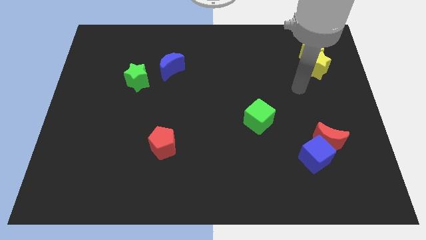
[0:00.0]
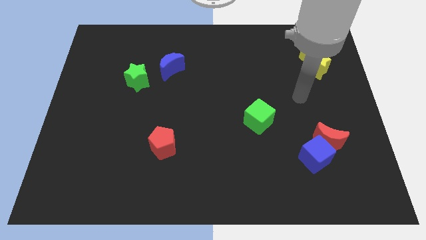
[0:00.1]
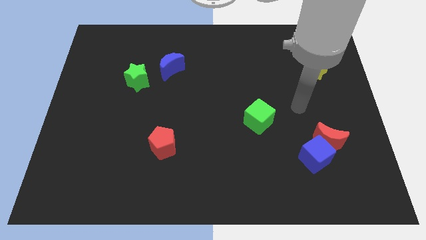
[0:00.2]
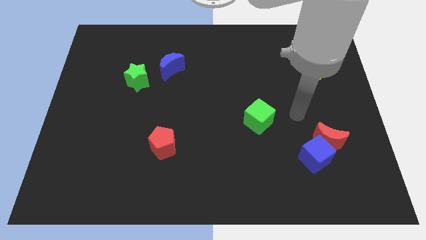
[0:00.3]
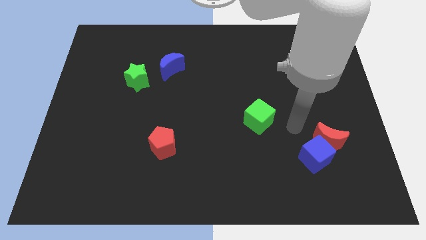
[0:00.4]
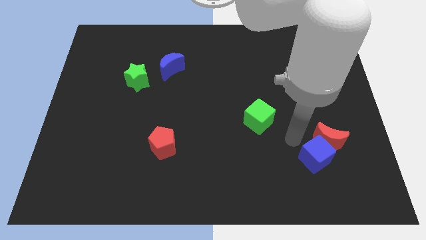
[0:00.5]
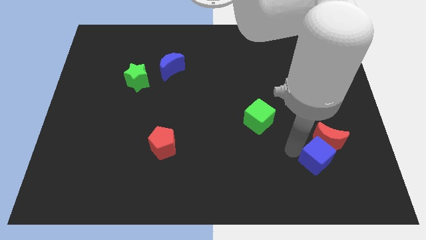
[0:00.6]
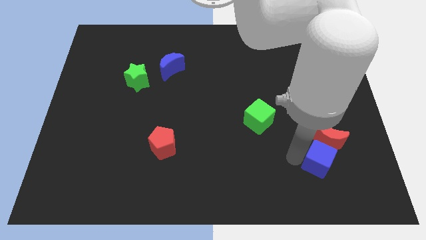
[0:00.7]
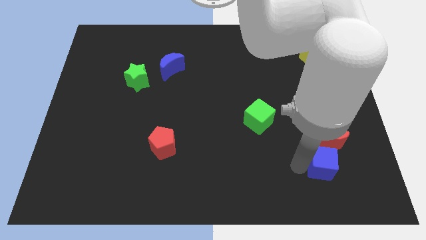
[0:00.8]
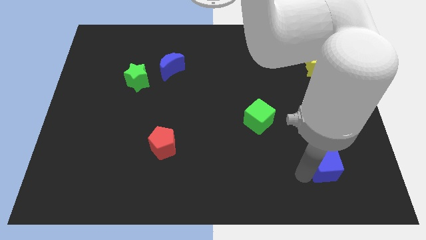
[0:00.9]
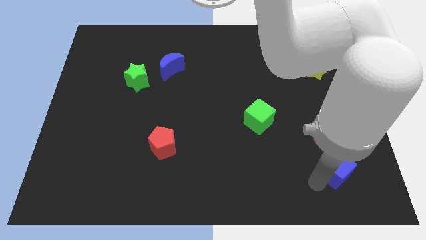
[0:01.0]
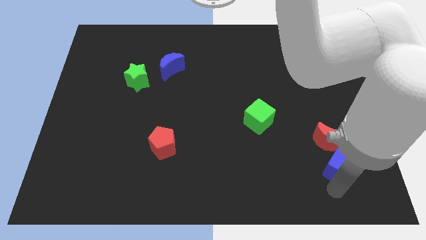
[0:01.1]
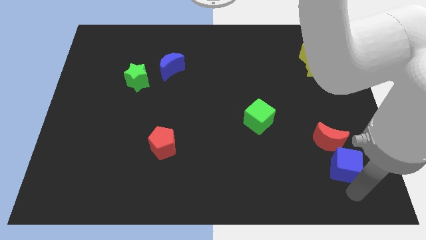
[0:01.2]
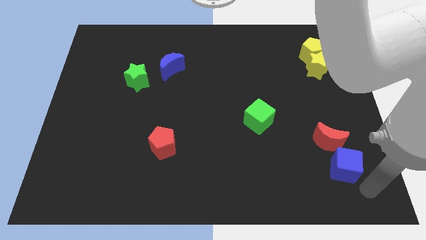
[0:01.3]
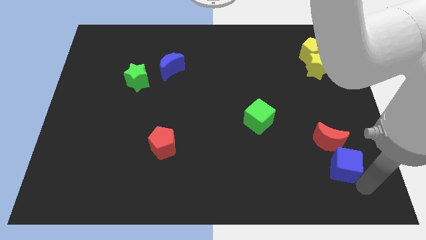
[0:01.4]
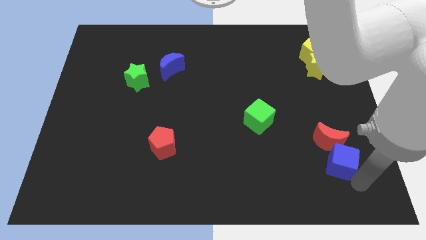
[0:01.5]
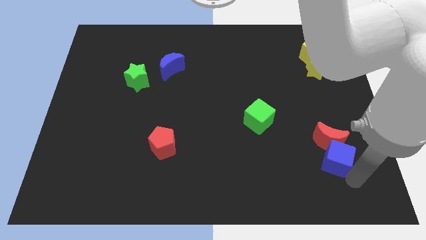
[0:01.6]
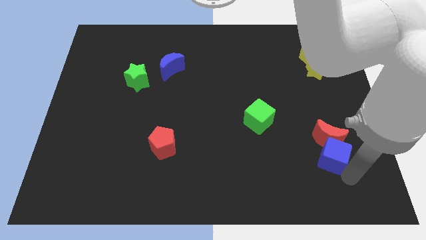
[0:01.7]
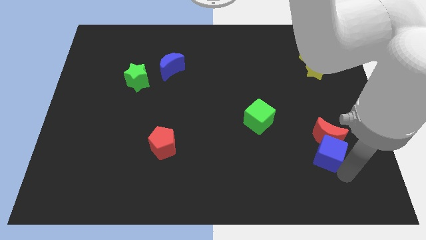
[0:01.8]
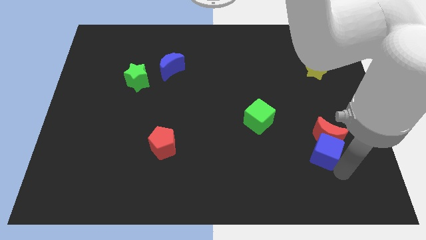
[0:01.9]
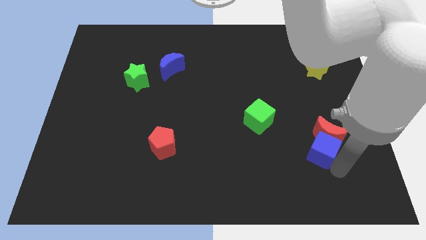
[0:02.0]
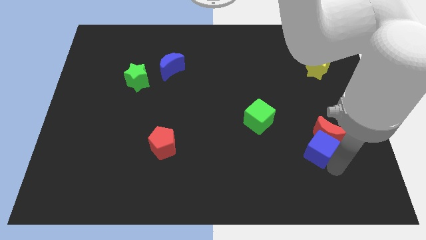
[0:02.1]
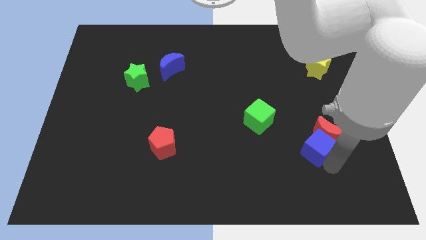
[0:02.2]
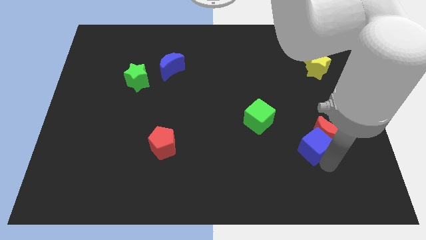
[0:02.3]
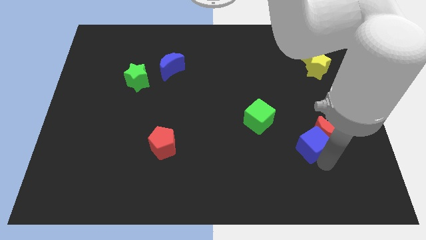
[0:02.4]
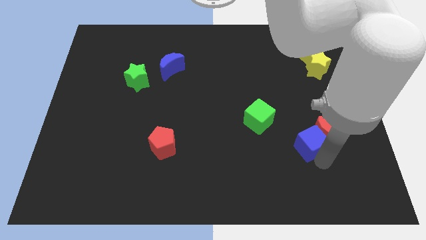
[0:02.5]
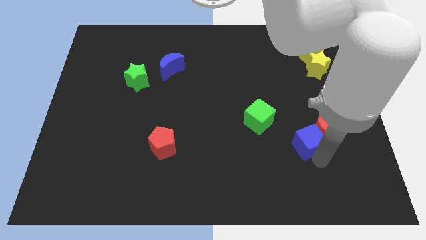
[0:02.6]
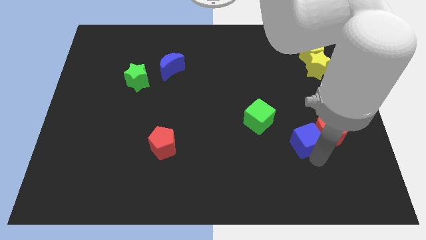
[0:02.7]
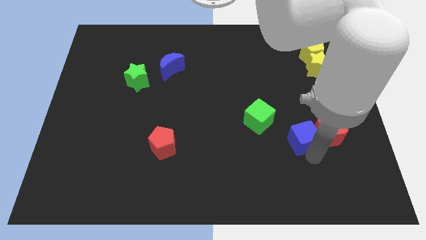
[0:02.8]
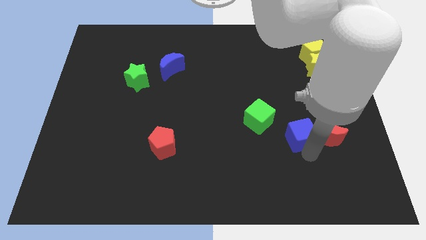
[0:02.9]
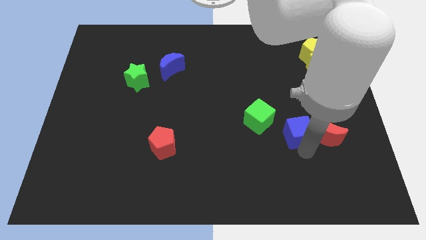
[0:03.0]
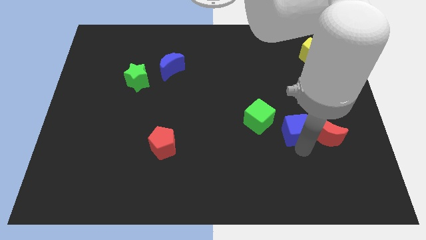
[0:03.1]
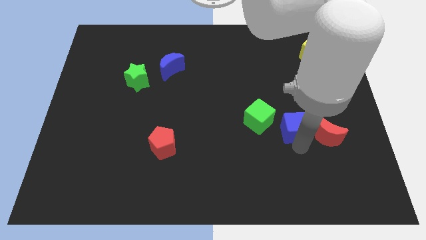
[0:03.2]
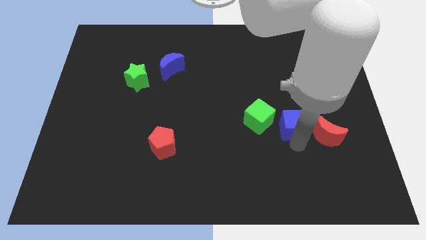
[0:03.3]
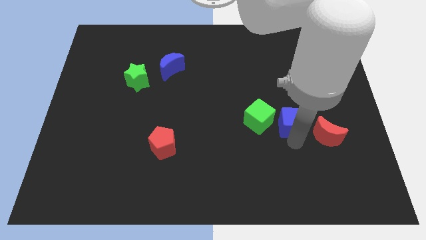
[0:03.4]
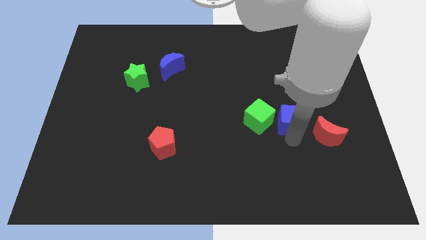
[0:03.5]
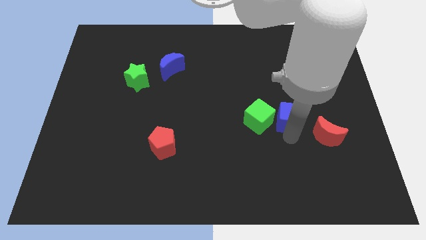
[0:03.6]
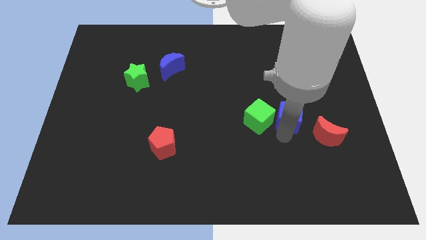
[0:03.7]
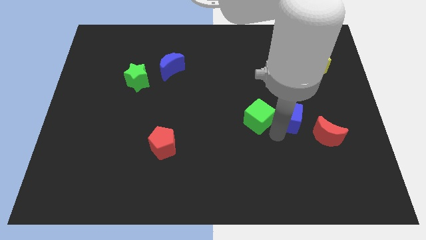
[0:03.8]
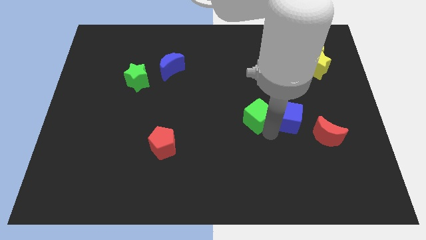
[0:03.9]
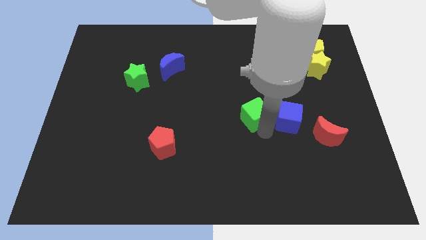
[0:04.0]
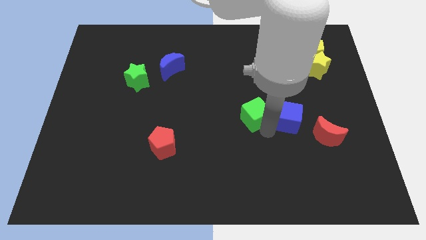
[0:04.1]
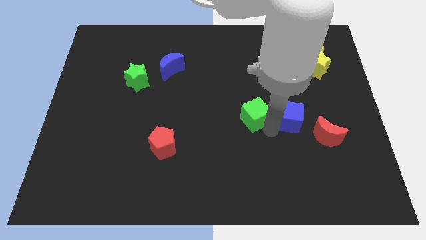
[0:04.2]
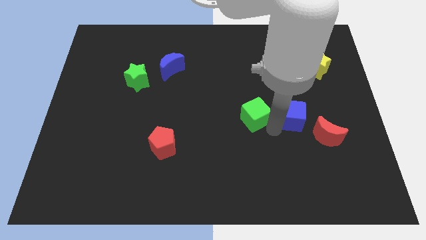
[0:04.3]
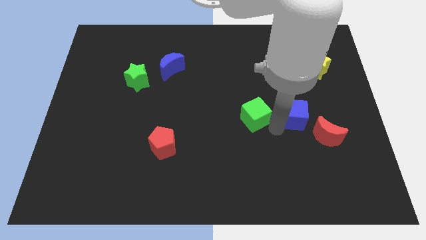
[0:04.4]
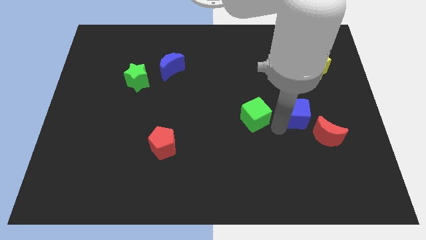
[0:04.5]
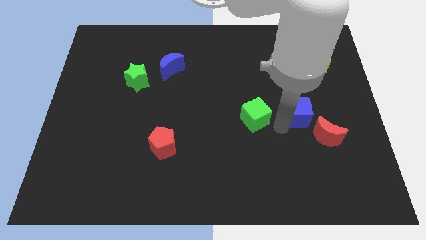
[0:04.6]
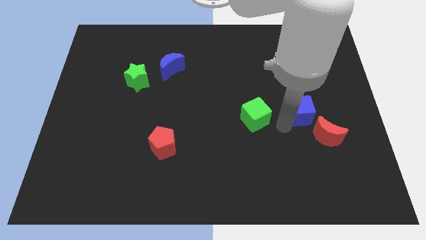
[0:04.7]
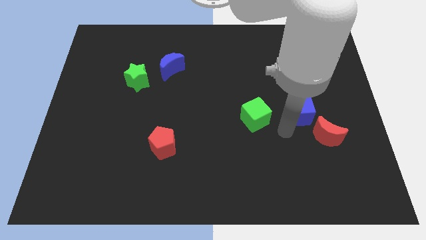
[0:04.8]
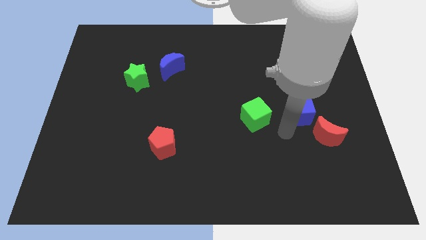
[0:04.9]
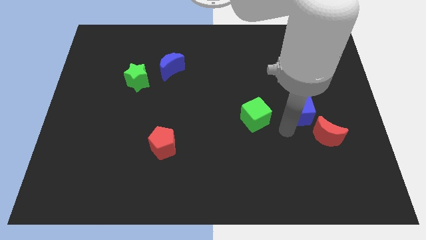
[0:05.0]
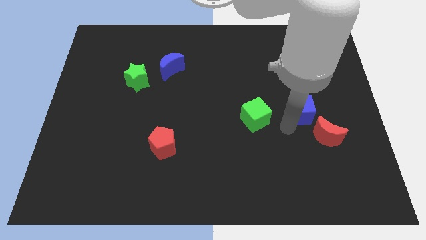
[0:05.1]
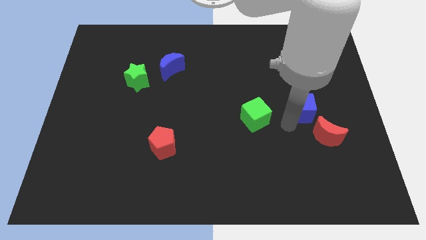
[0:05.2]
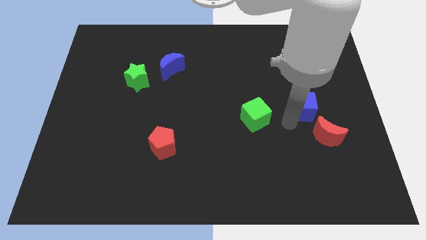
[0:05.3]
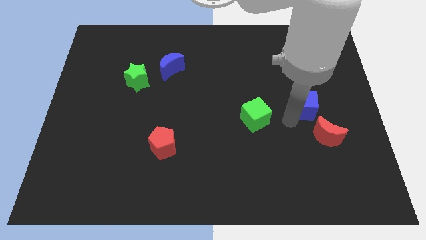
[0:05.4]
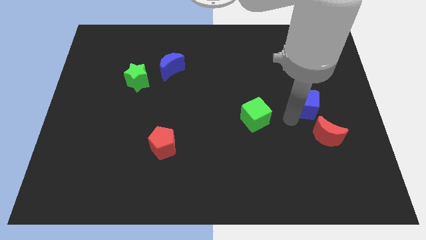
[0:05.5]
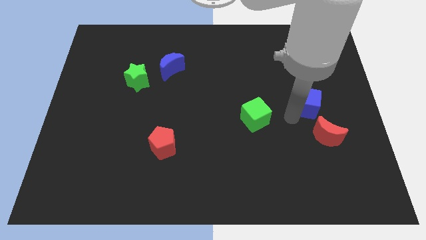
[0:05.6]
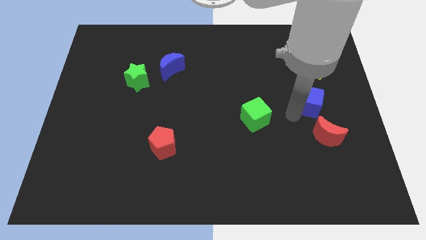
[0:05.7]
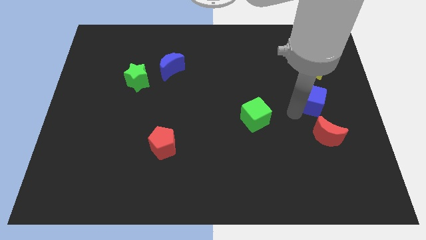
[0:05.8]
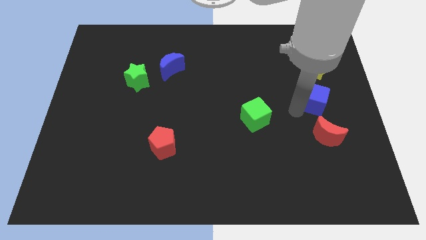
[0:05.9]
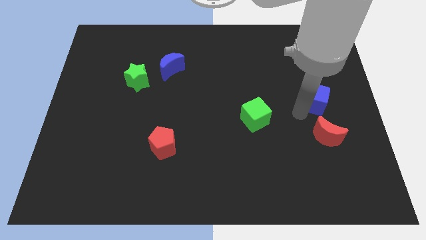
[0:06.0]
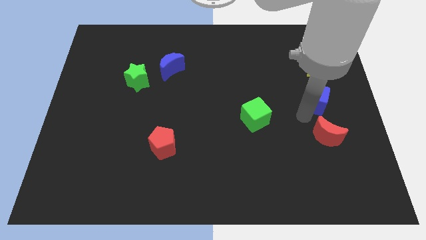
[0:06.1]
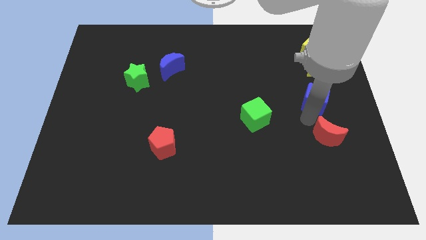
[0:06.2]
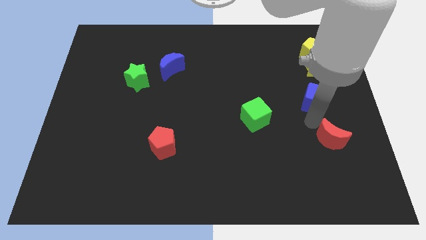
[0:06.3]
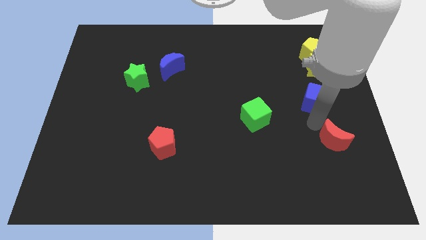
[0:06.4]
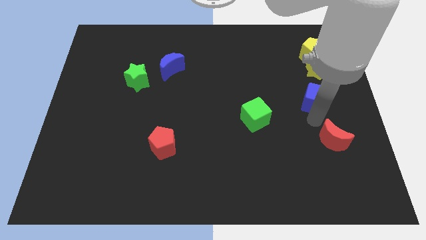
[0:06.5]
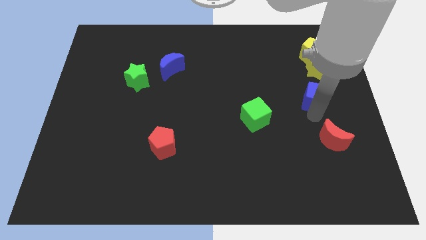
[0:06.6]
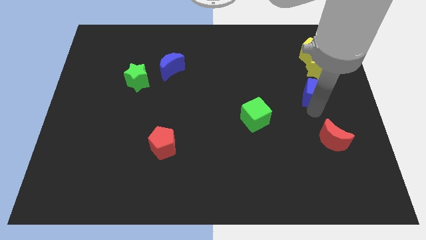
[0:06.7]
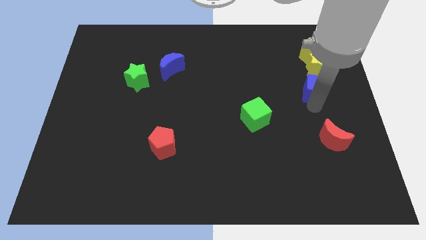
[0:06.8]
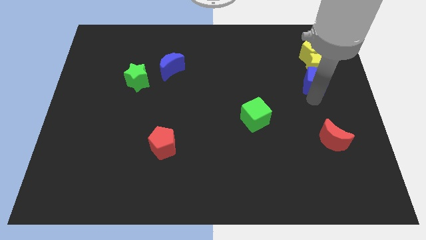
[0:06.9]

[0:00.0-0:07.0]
move the blue cube next to the yellow star
